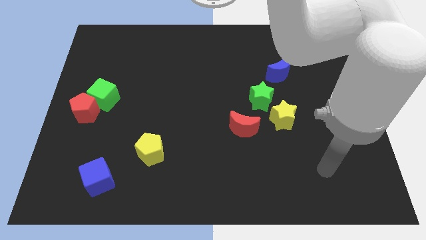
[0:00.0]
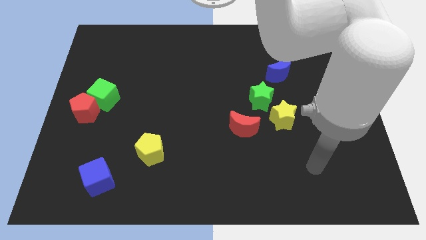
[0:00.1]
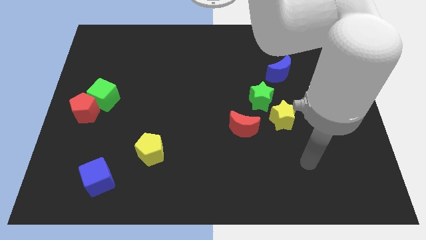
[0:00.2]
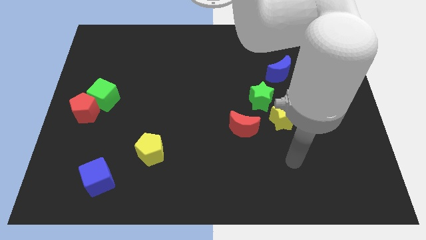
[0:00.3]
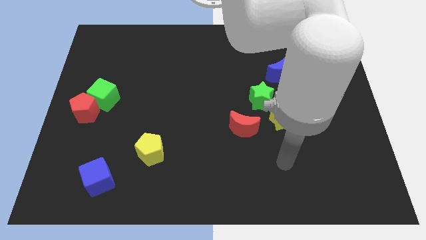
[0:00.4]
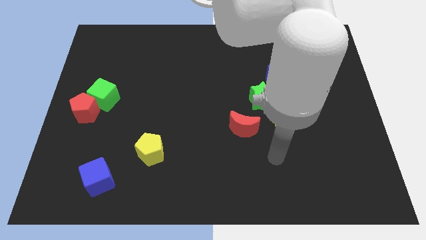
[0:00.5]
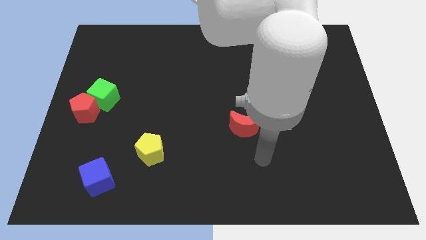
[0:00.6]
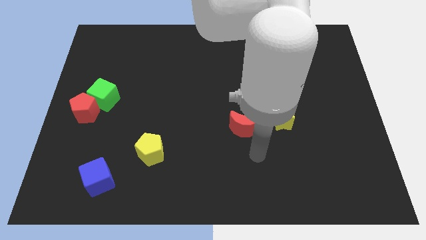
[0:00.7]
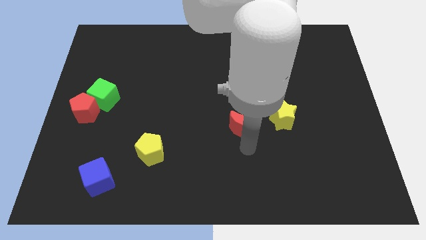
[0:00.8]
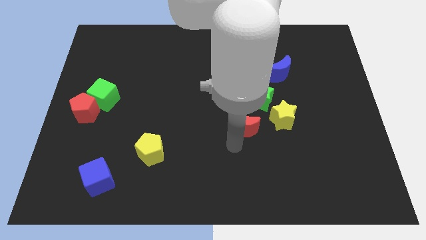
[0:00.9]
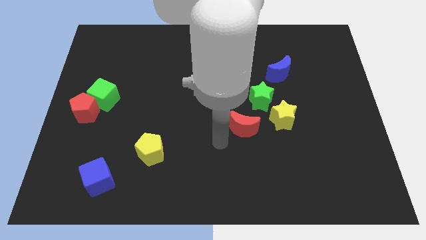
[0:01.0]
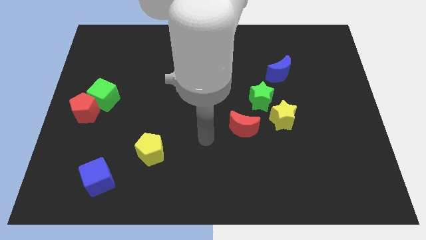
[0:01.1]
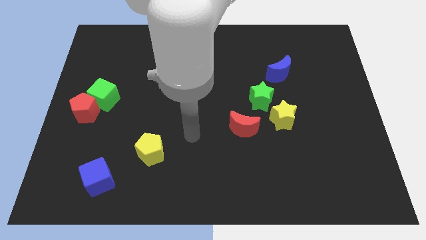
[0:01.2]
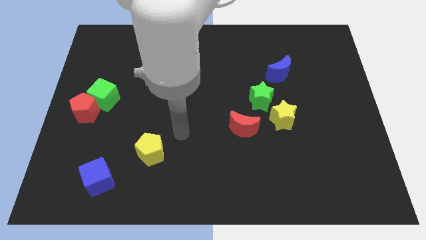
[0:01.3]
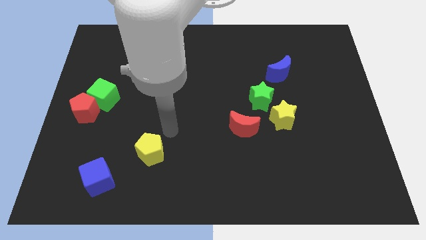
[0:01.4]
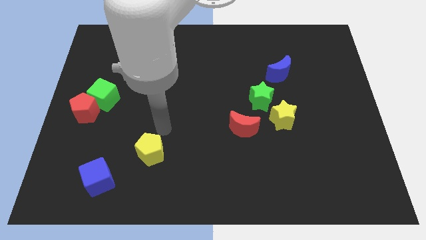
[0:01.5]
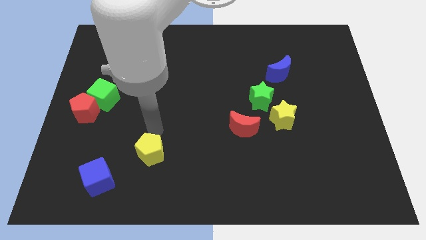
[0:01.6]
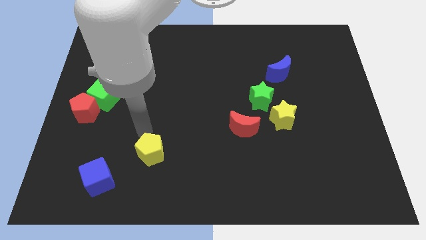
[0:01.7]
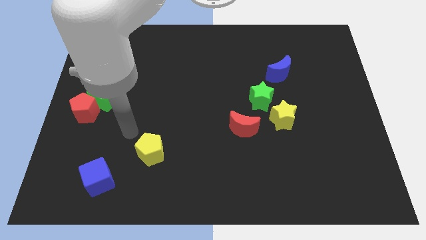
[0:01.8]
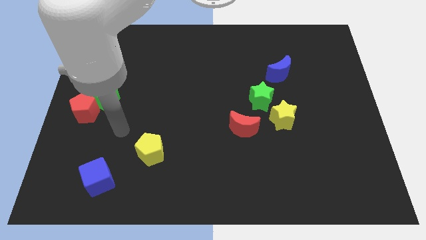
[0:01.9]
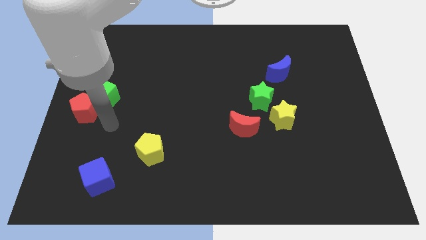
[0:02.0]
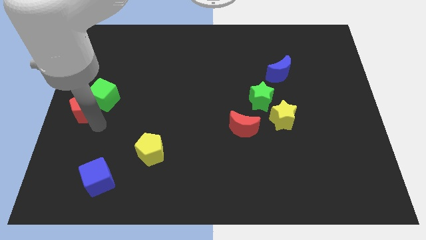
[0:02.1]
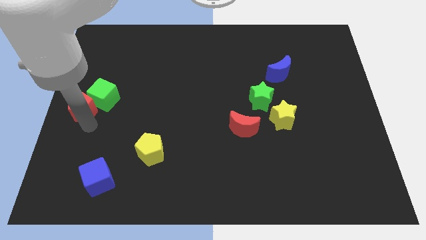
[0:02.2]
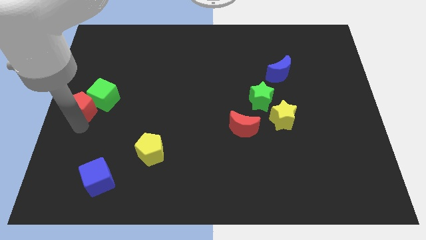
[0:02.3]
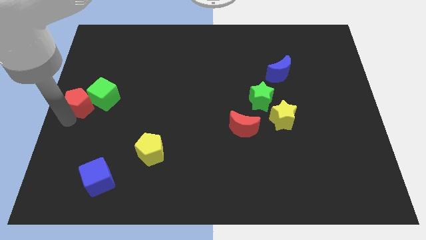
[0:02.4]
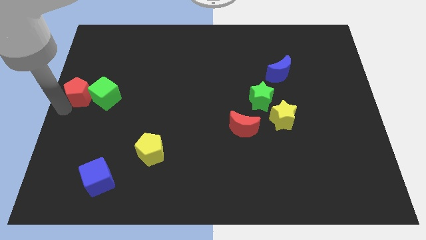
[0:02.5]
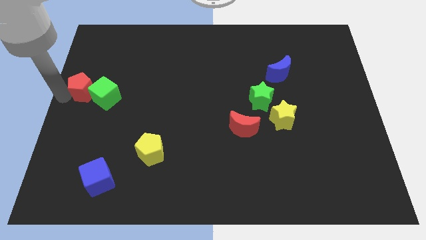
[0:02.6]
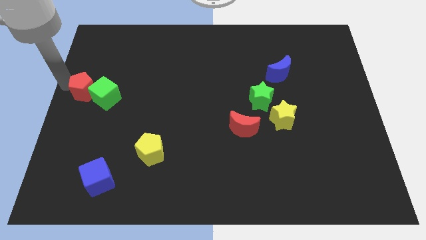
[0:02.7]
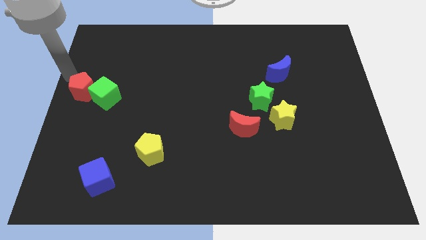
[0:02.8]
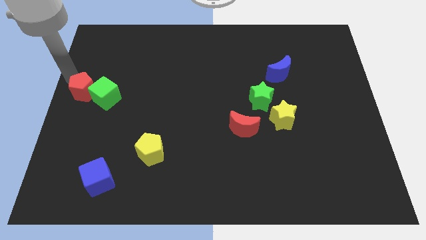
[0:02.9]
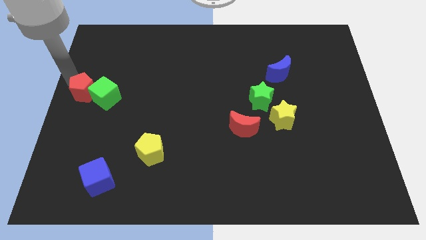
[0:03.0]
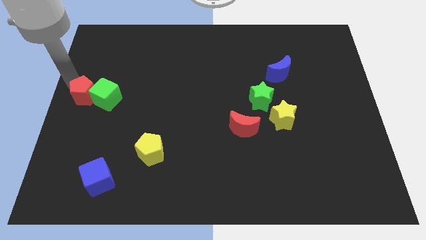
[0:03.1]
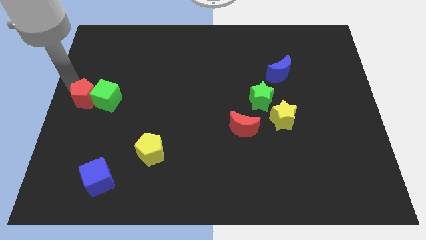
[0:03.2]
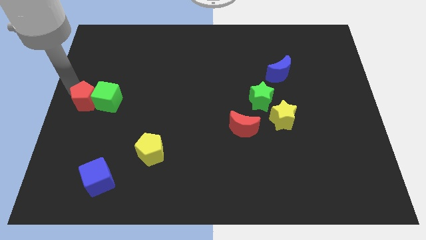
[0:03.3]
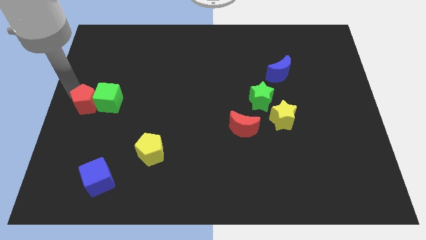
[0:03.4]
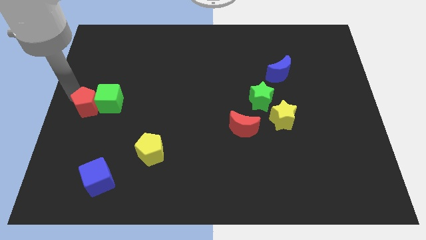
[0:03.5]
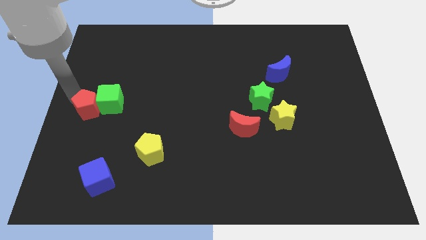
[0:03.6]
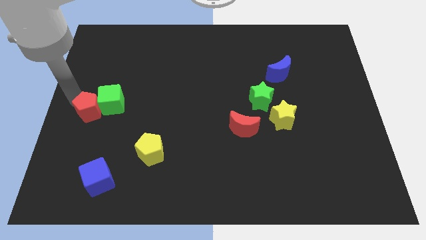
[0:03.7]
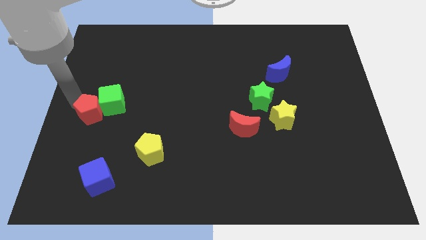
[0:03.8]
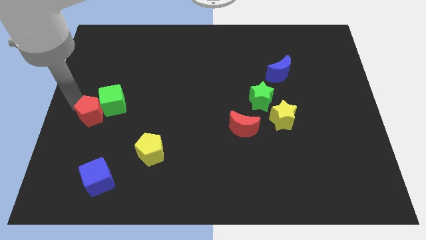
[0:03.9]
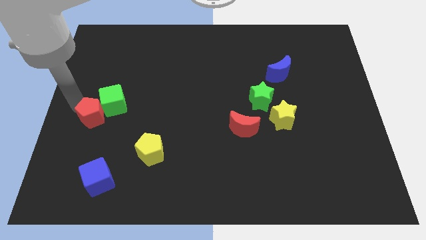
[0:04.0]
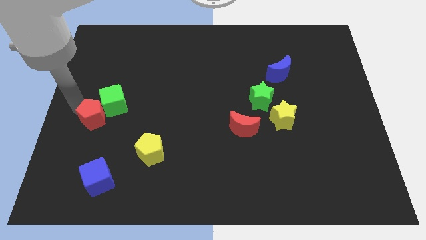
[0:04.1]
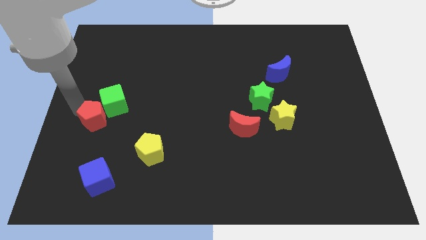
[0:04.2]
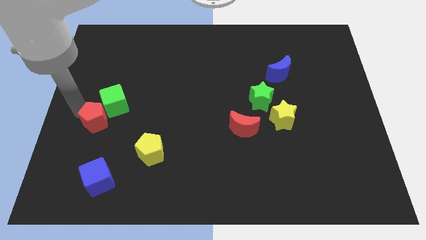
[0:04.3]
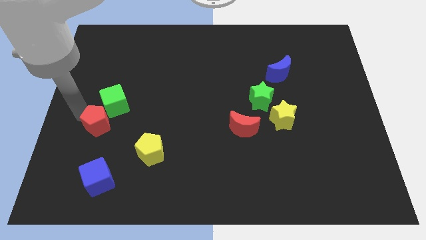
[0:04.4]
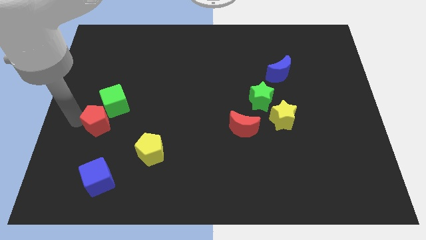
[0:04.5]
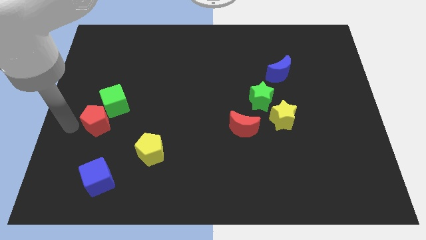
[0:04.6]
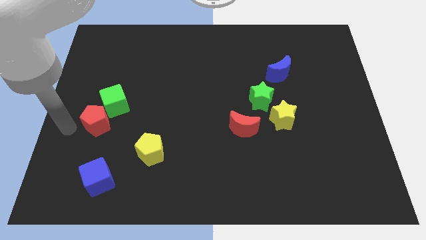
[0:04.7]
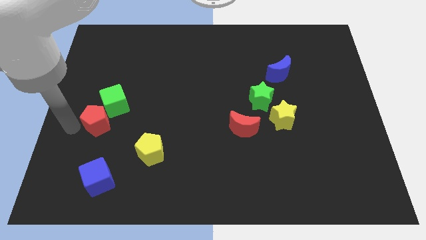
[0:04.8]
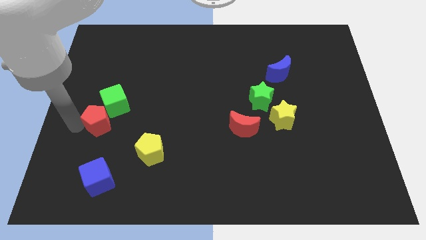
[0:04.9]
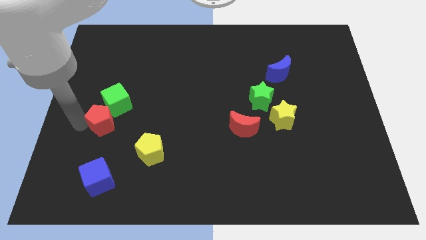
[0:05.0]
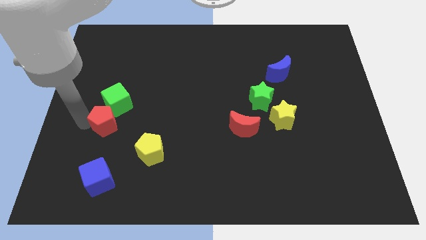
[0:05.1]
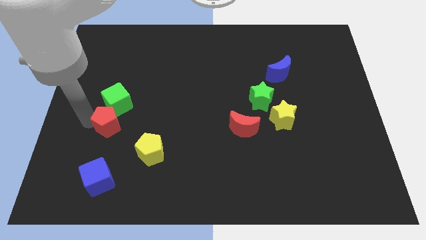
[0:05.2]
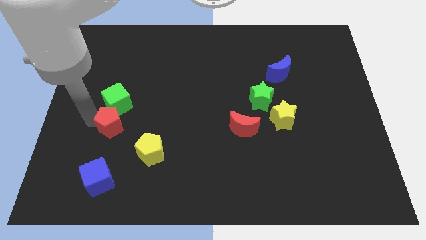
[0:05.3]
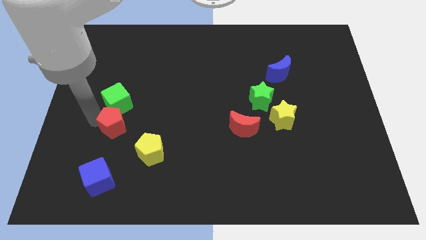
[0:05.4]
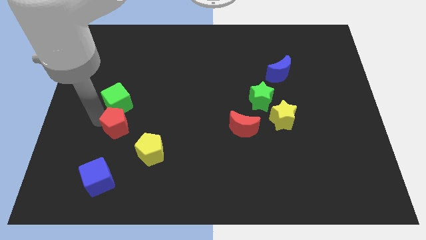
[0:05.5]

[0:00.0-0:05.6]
push the red pentagon to the right slightly

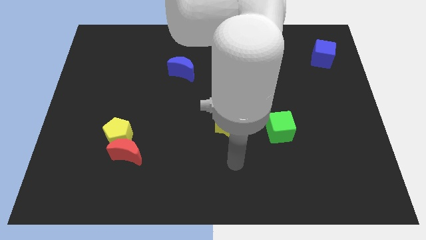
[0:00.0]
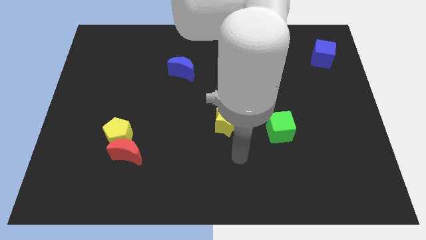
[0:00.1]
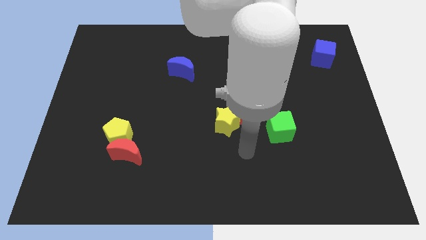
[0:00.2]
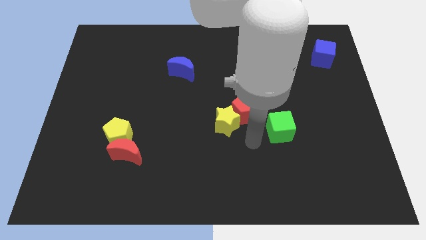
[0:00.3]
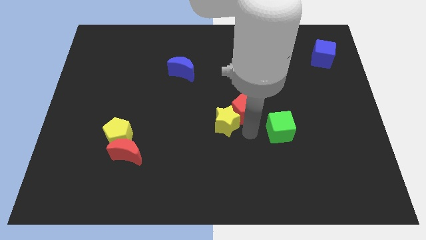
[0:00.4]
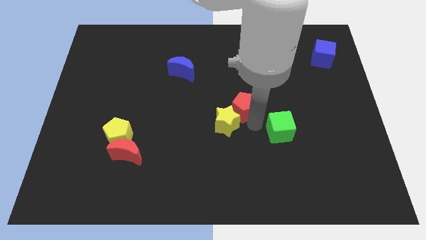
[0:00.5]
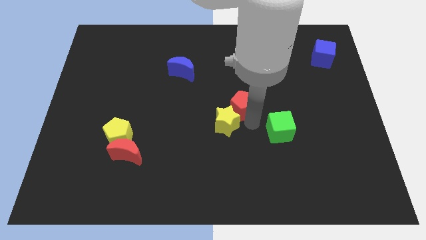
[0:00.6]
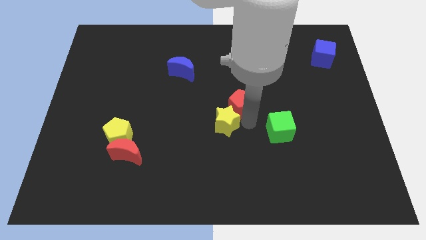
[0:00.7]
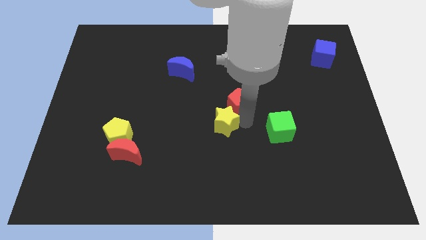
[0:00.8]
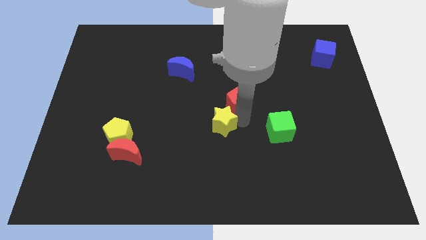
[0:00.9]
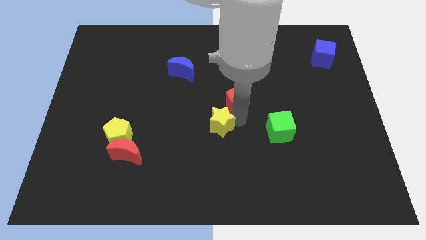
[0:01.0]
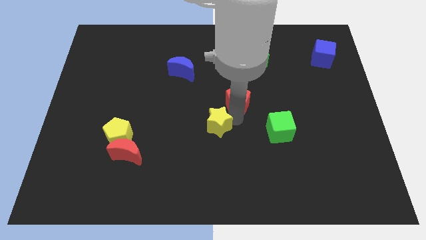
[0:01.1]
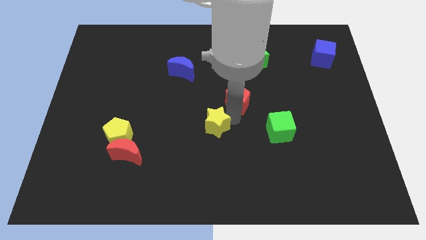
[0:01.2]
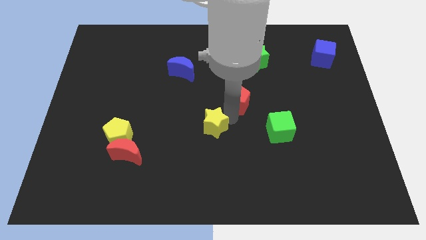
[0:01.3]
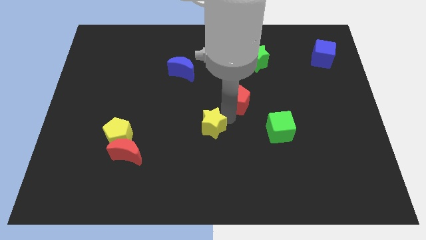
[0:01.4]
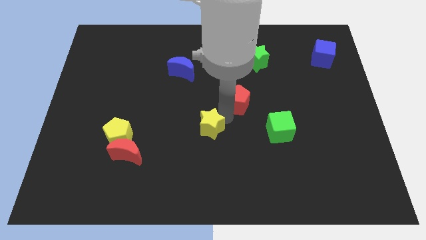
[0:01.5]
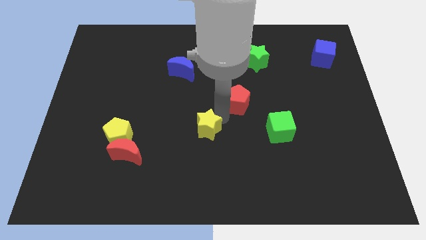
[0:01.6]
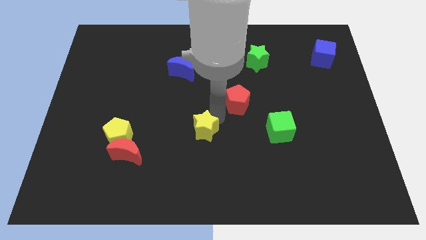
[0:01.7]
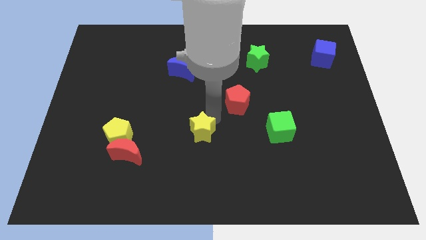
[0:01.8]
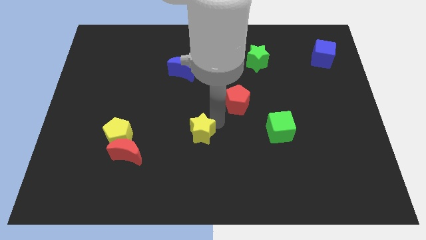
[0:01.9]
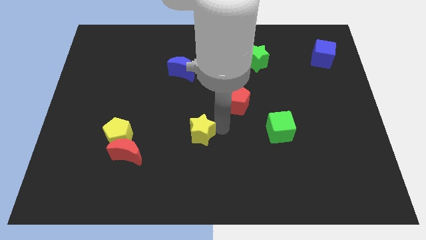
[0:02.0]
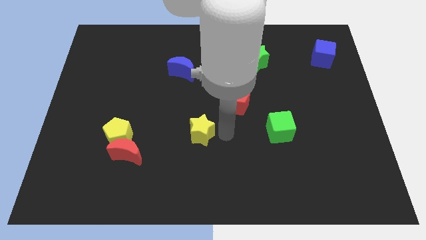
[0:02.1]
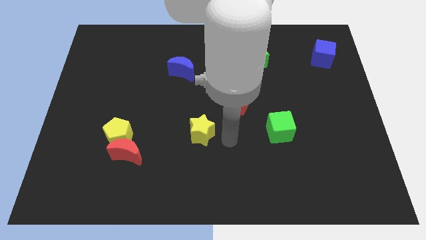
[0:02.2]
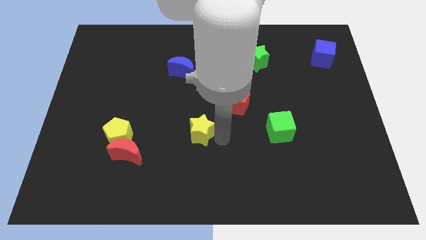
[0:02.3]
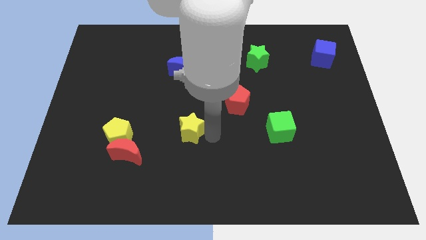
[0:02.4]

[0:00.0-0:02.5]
slightly push the yellow star to the left
